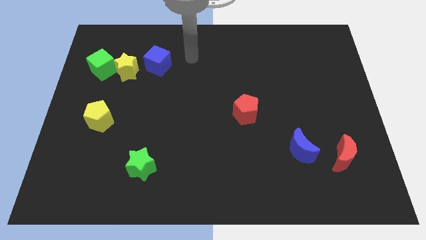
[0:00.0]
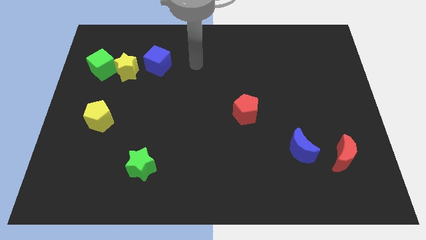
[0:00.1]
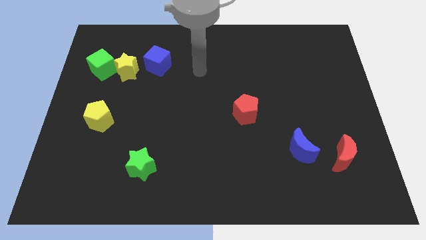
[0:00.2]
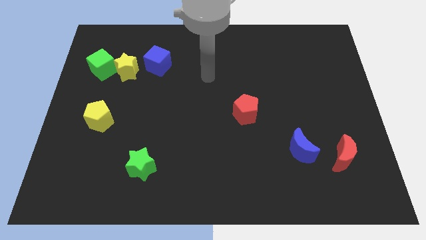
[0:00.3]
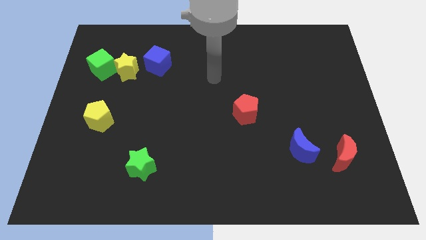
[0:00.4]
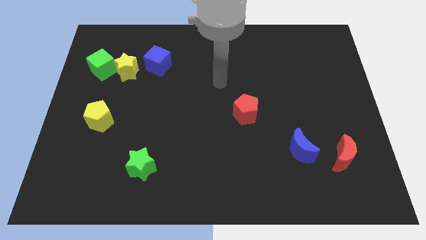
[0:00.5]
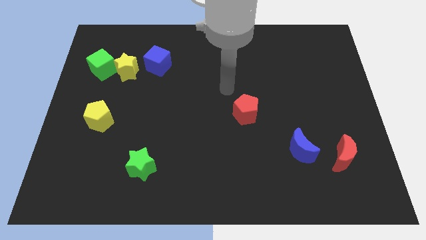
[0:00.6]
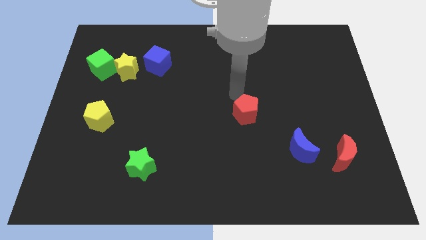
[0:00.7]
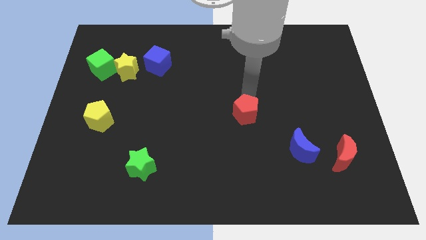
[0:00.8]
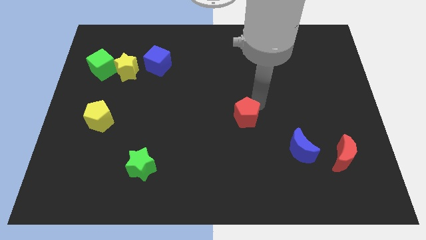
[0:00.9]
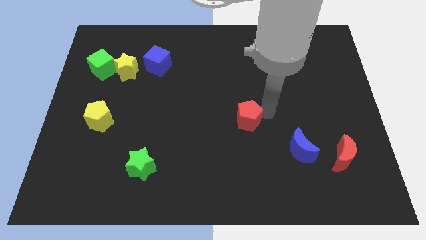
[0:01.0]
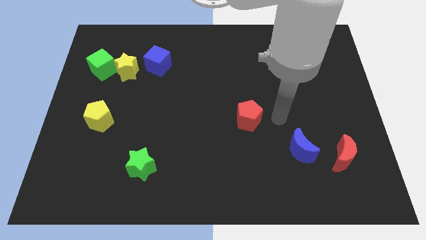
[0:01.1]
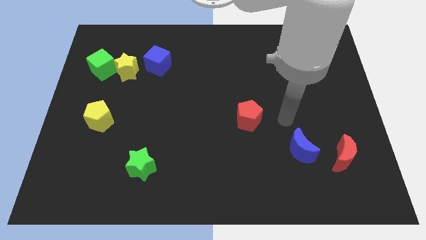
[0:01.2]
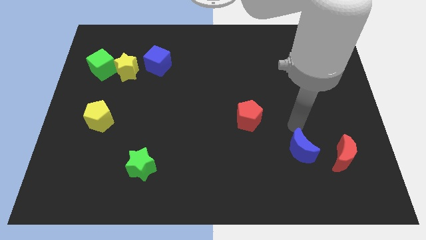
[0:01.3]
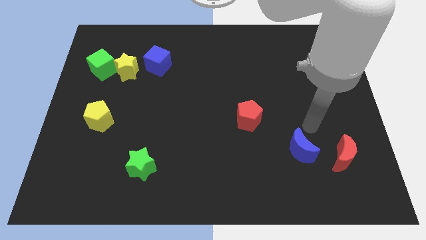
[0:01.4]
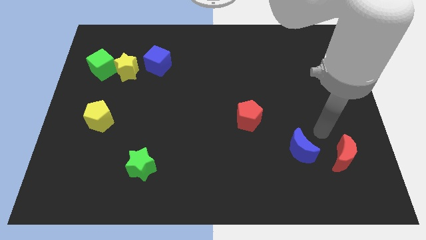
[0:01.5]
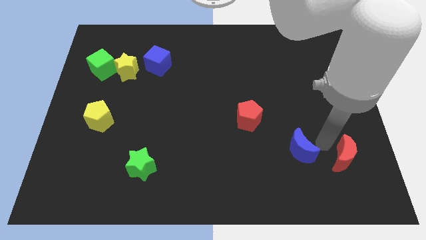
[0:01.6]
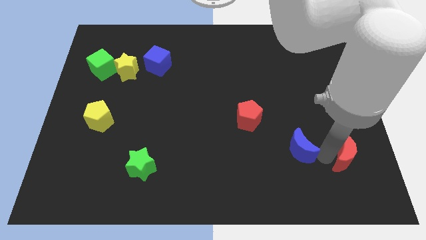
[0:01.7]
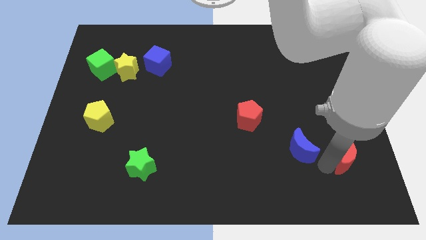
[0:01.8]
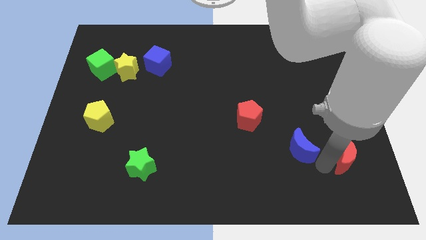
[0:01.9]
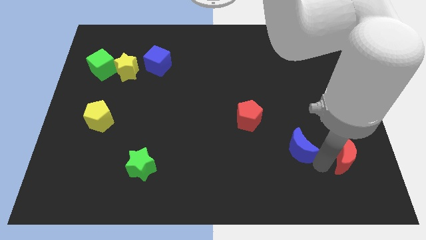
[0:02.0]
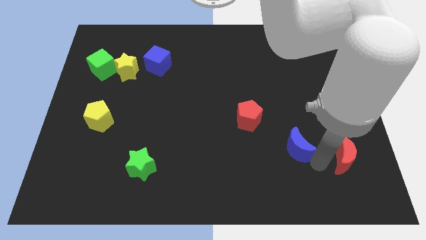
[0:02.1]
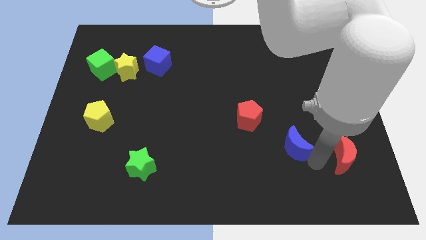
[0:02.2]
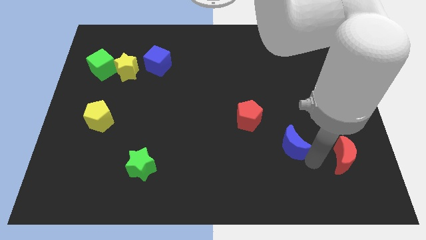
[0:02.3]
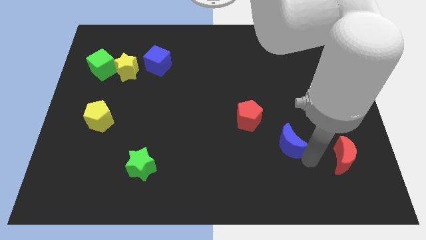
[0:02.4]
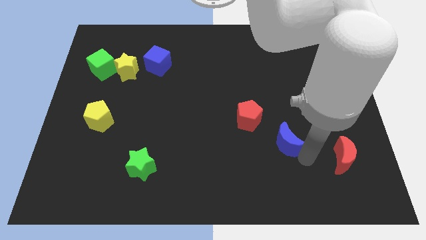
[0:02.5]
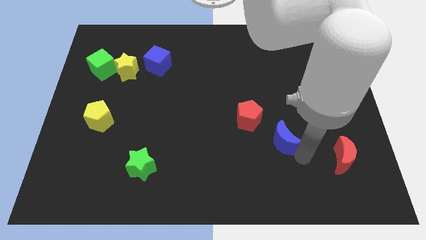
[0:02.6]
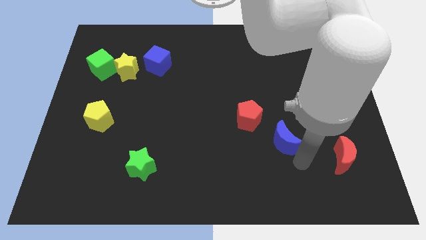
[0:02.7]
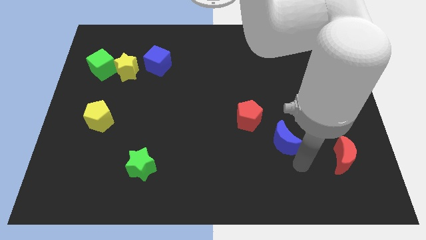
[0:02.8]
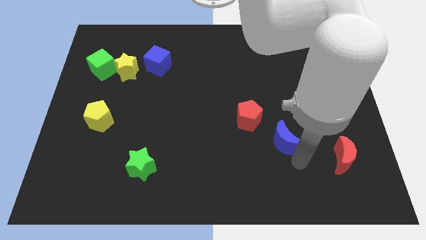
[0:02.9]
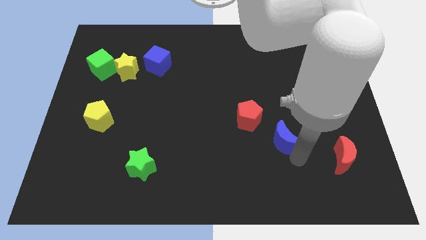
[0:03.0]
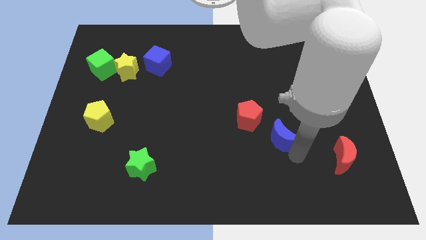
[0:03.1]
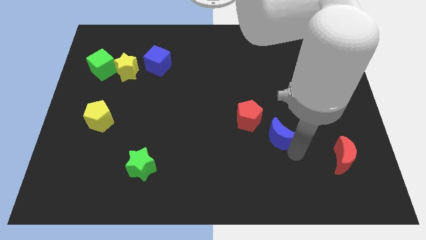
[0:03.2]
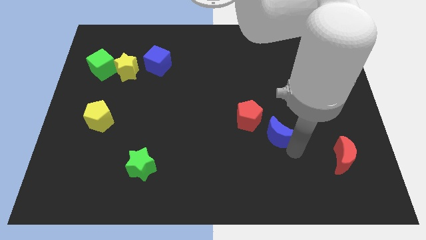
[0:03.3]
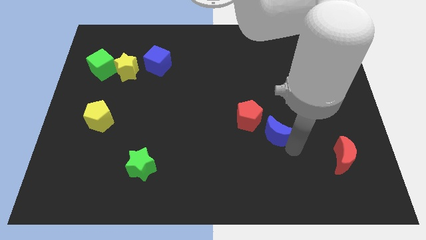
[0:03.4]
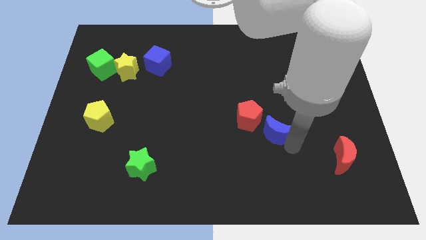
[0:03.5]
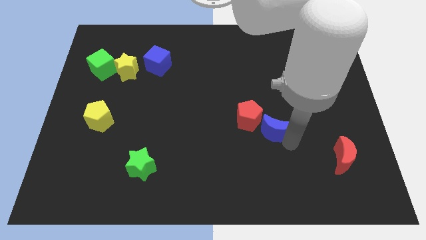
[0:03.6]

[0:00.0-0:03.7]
move the blue moon diagonally upwards and to the left a bit

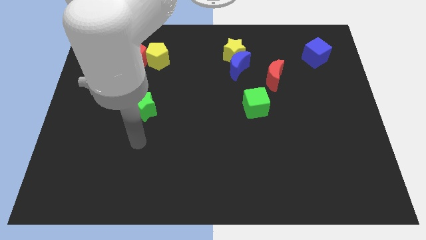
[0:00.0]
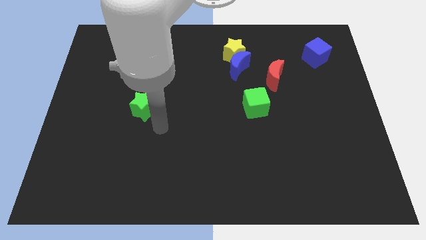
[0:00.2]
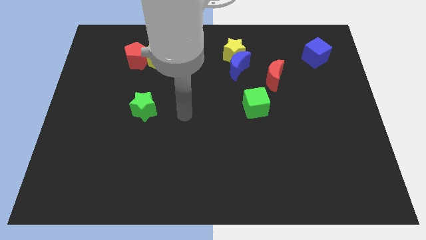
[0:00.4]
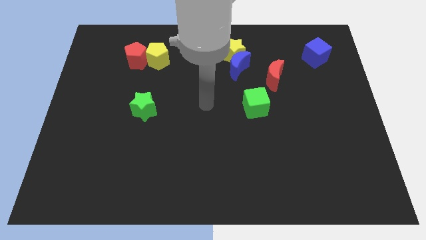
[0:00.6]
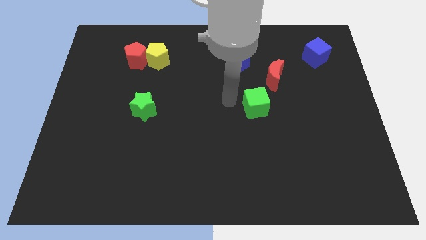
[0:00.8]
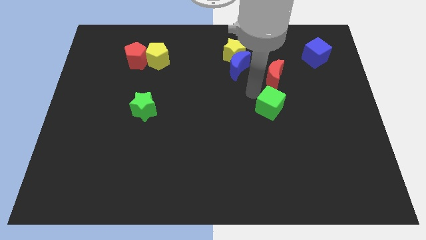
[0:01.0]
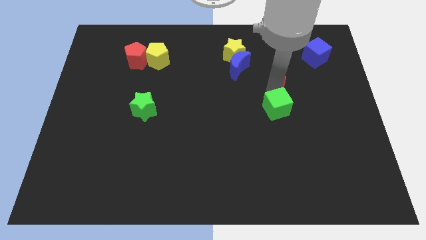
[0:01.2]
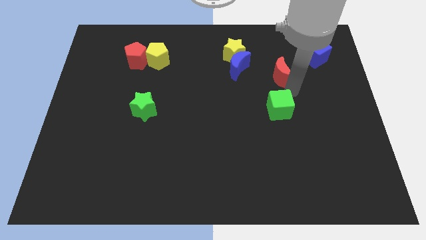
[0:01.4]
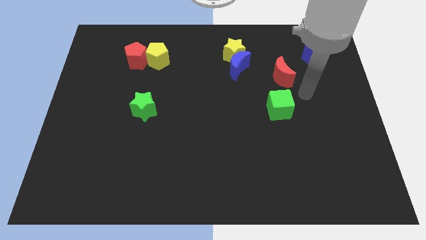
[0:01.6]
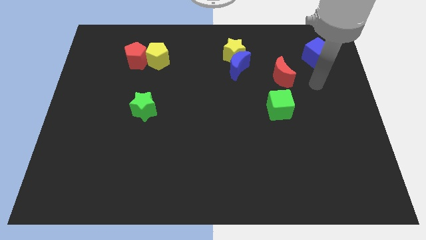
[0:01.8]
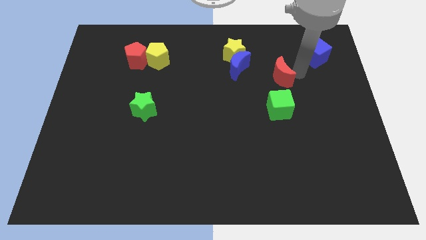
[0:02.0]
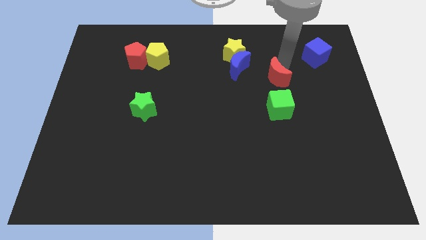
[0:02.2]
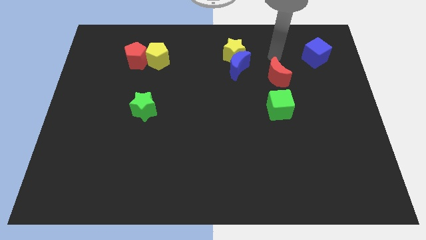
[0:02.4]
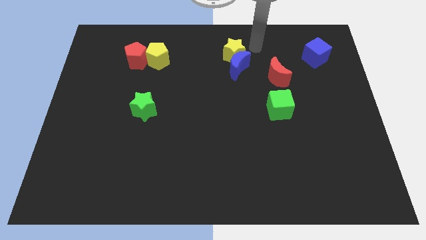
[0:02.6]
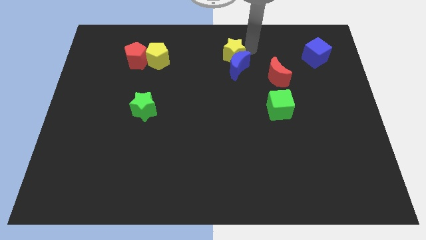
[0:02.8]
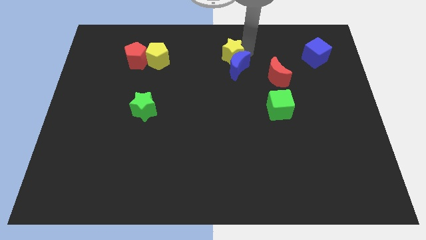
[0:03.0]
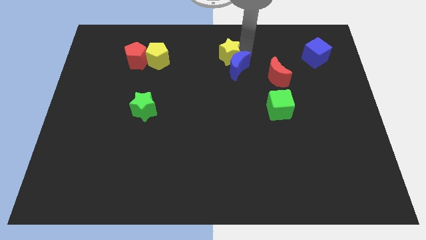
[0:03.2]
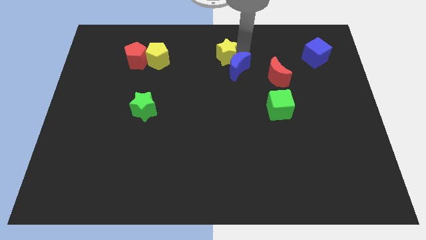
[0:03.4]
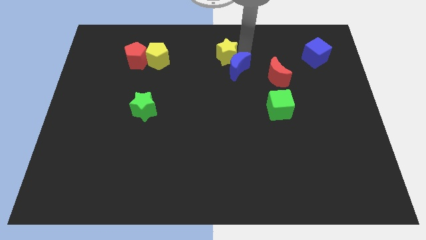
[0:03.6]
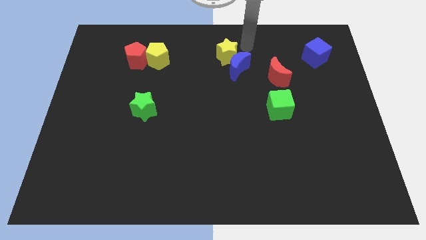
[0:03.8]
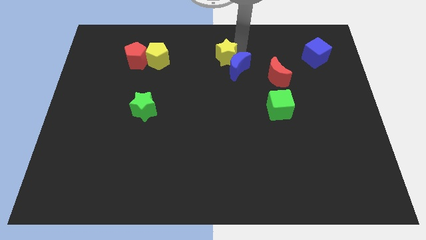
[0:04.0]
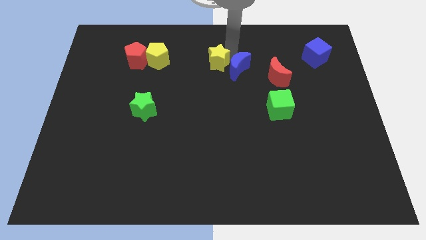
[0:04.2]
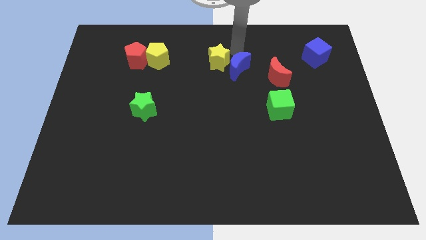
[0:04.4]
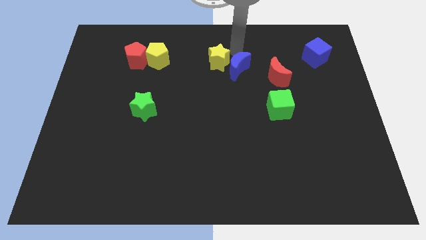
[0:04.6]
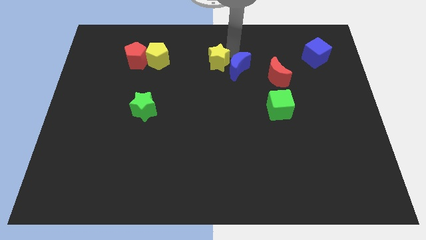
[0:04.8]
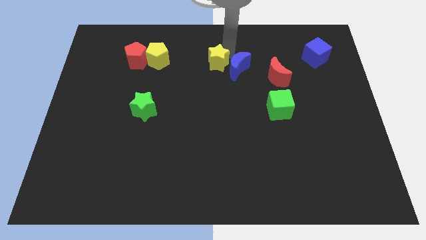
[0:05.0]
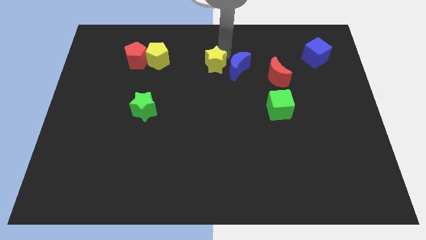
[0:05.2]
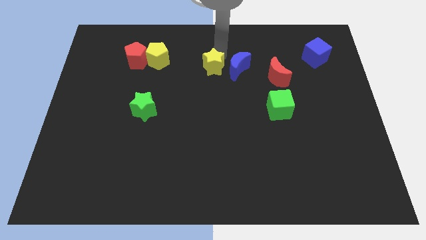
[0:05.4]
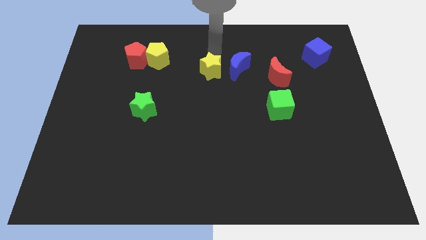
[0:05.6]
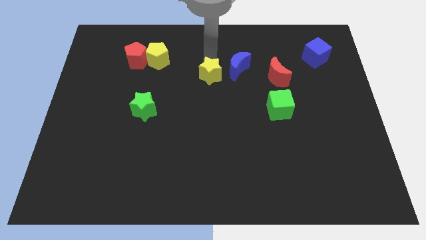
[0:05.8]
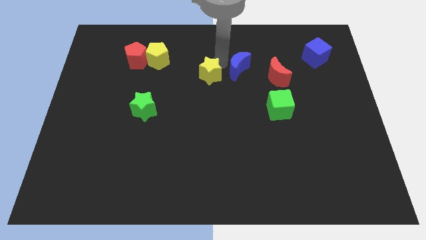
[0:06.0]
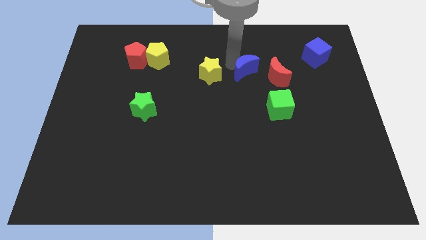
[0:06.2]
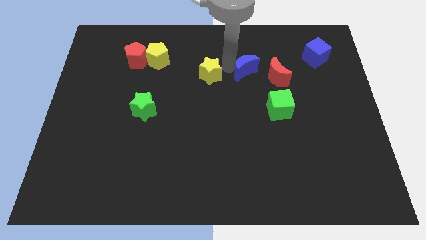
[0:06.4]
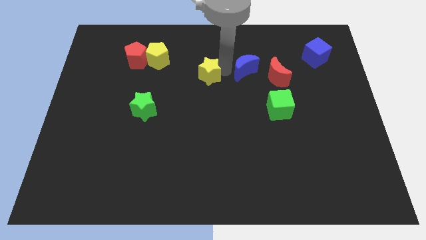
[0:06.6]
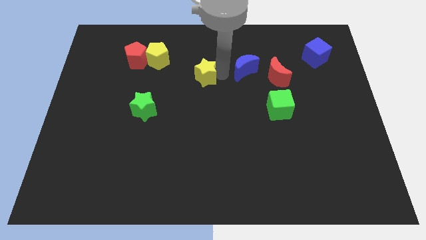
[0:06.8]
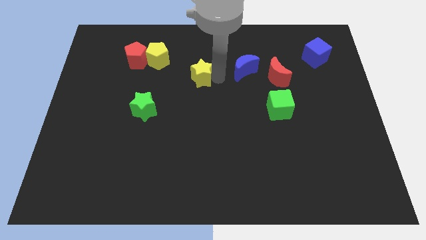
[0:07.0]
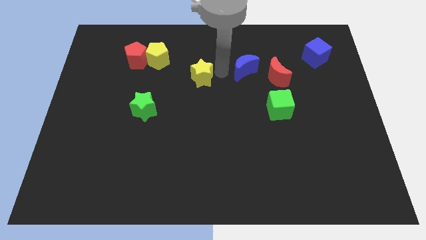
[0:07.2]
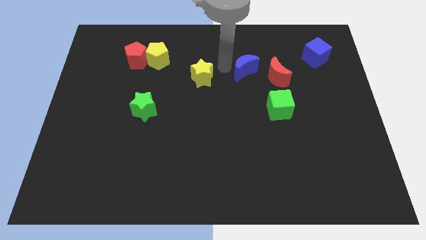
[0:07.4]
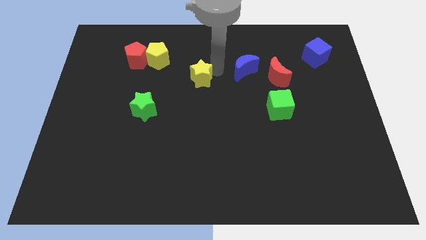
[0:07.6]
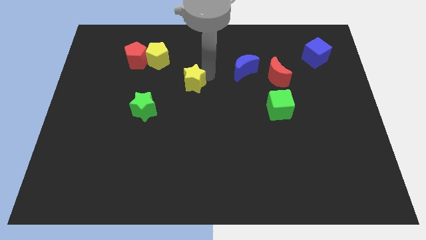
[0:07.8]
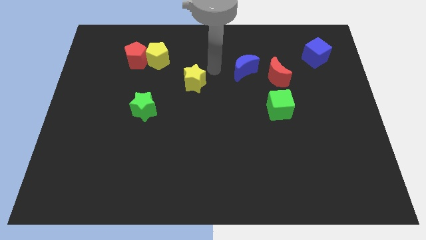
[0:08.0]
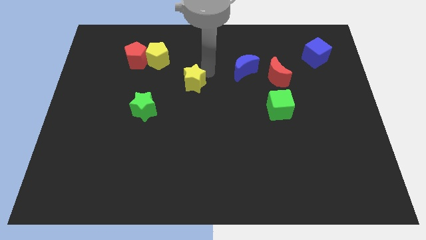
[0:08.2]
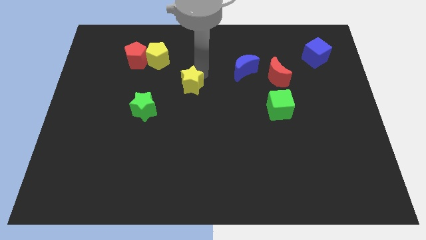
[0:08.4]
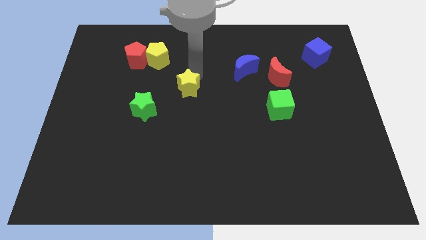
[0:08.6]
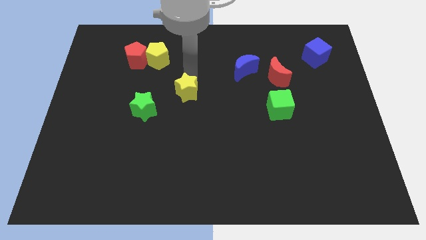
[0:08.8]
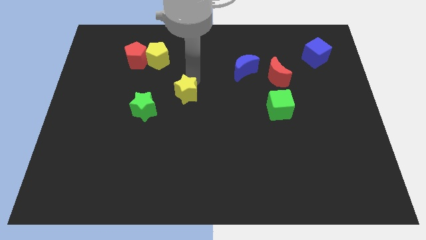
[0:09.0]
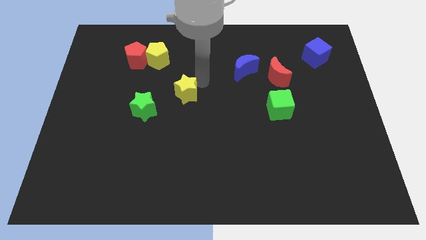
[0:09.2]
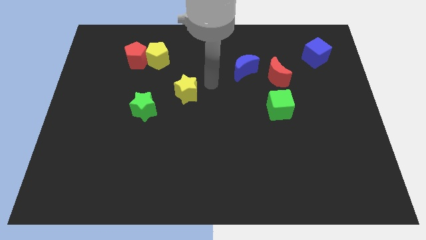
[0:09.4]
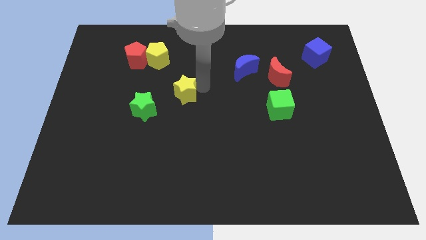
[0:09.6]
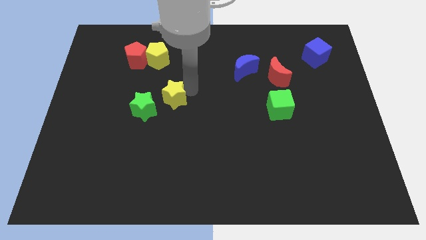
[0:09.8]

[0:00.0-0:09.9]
push the yellow star down and left diagonally
